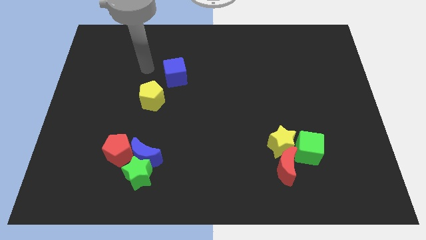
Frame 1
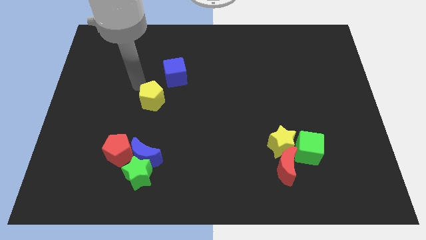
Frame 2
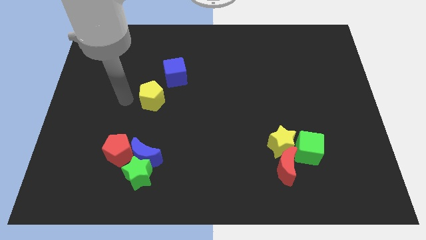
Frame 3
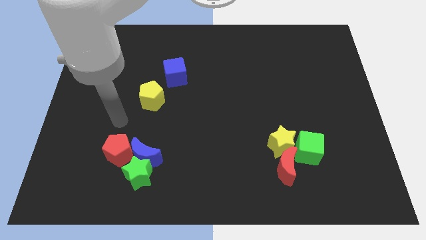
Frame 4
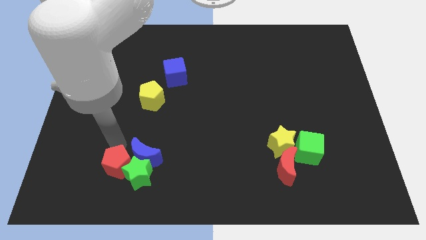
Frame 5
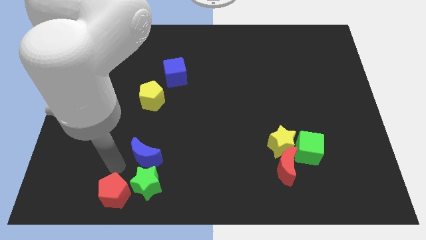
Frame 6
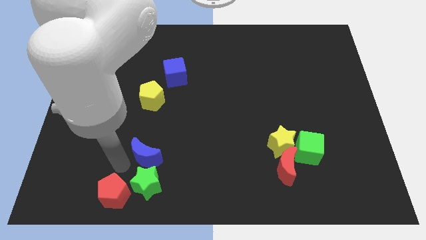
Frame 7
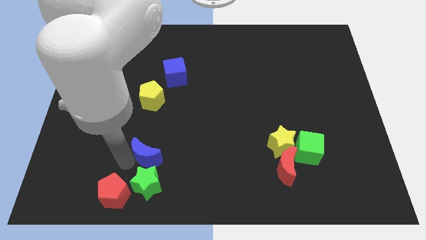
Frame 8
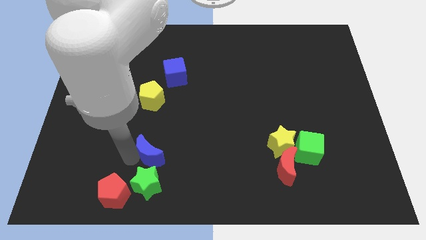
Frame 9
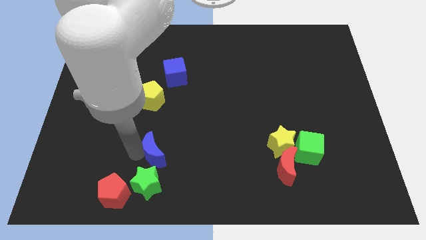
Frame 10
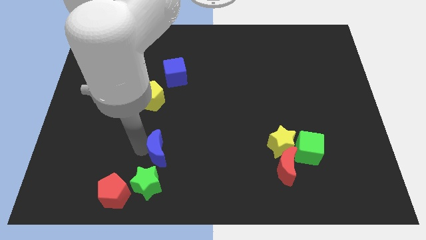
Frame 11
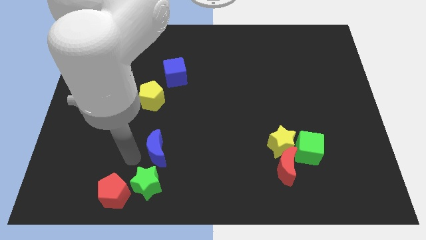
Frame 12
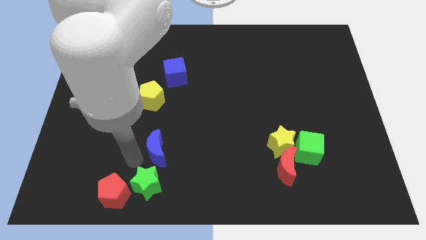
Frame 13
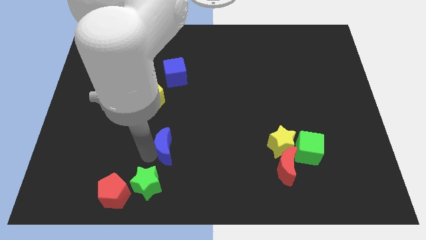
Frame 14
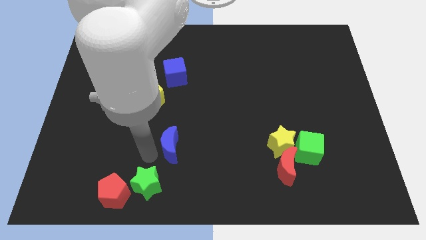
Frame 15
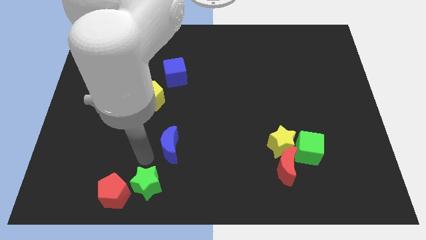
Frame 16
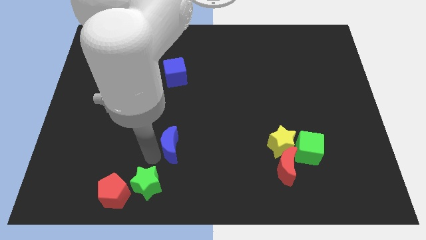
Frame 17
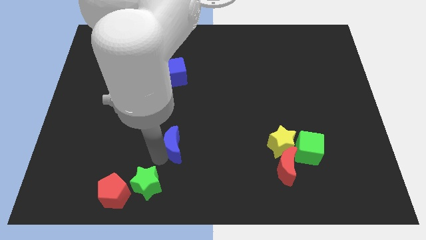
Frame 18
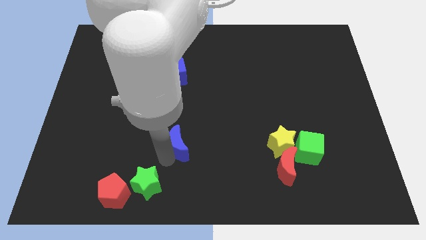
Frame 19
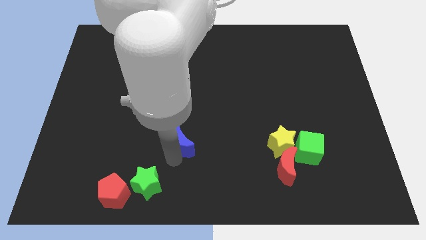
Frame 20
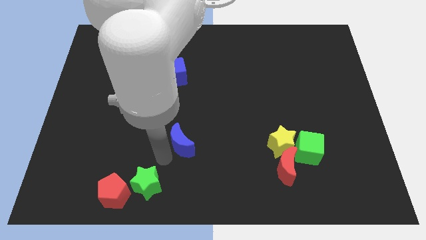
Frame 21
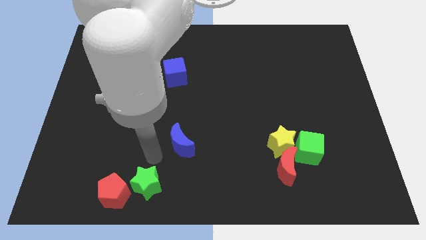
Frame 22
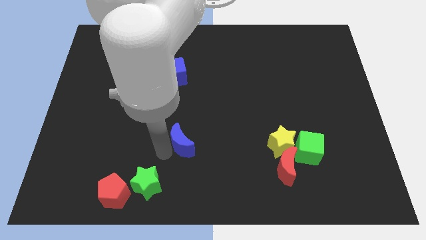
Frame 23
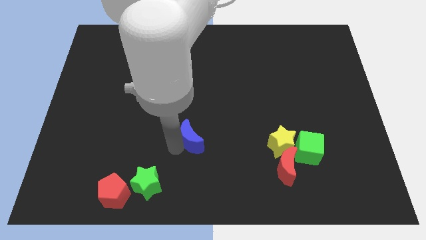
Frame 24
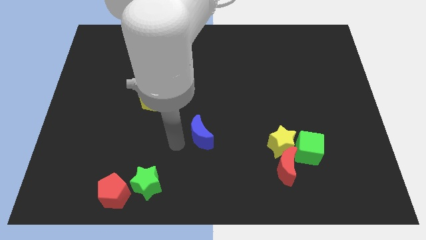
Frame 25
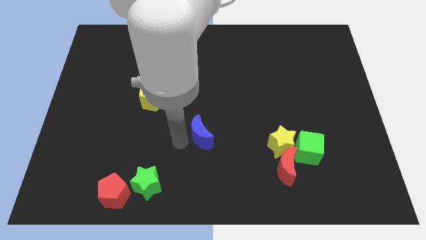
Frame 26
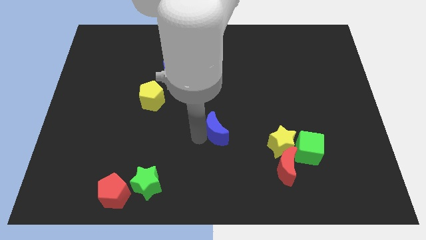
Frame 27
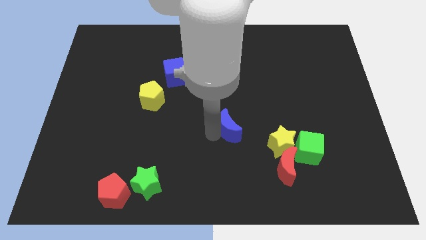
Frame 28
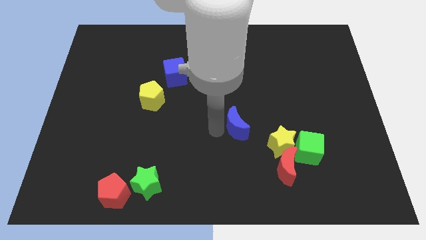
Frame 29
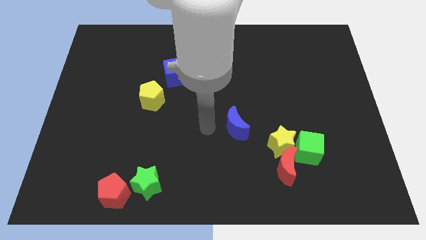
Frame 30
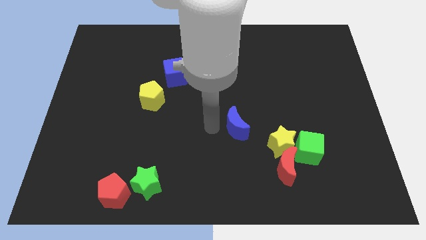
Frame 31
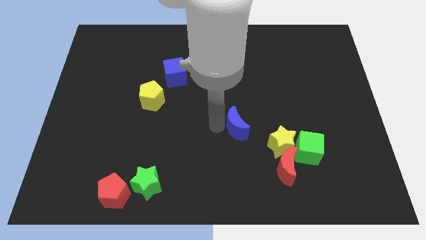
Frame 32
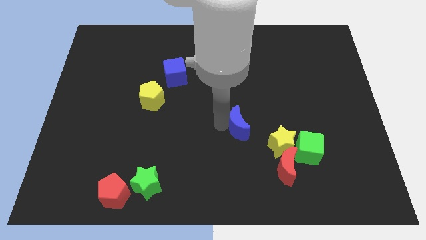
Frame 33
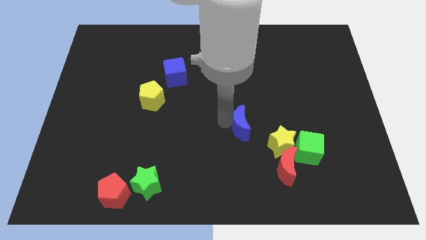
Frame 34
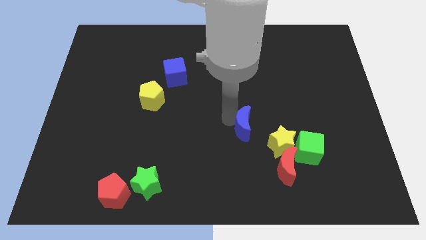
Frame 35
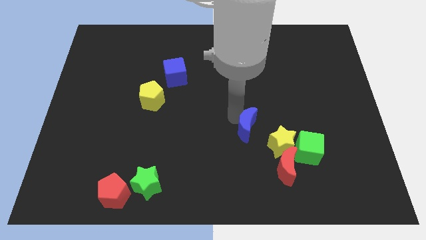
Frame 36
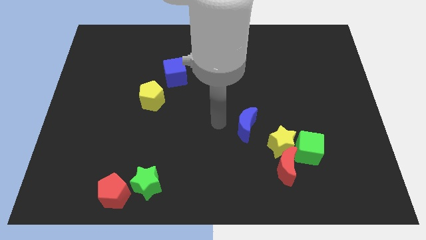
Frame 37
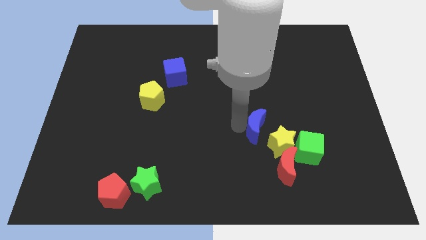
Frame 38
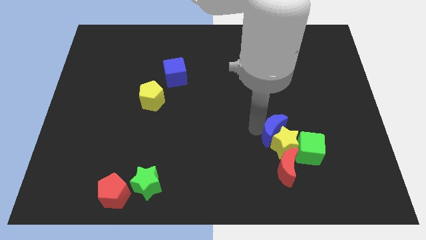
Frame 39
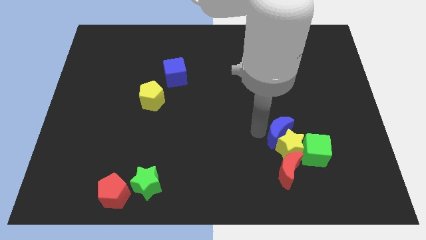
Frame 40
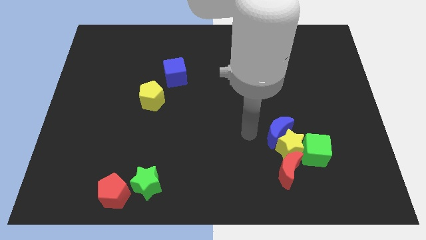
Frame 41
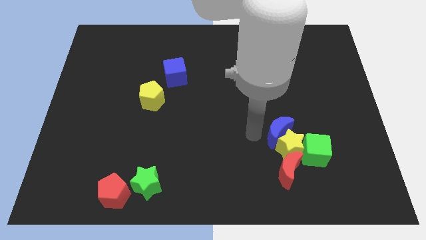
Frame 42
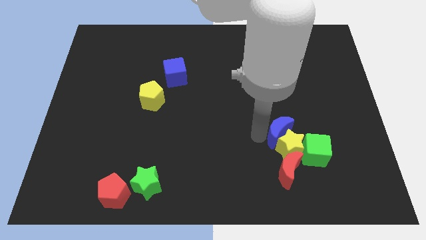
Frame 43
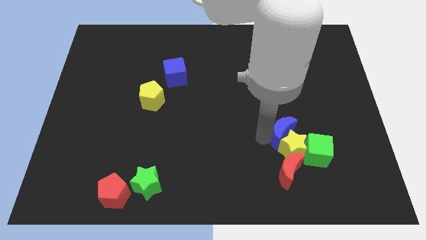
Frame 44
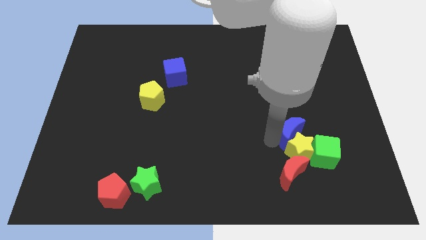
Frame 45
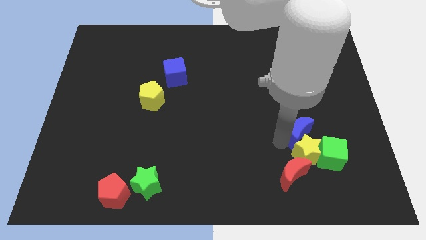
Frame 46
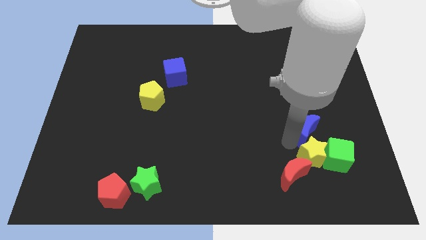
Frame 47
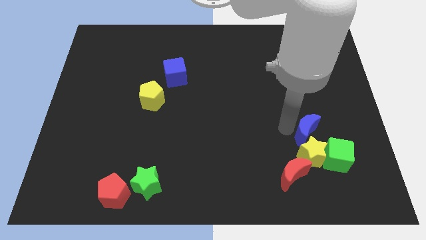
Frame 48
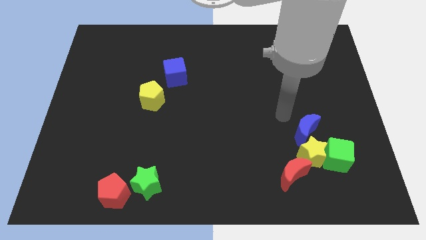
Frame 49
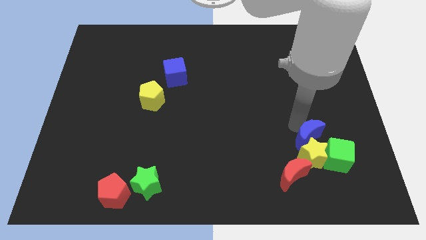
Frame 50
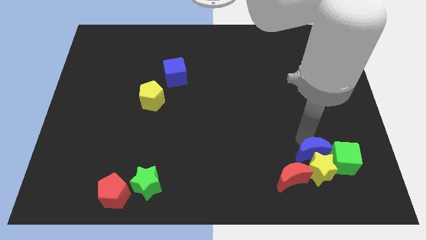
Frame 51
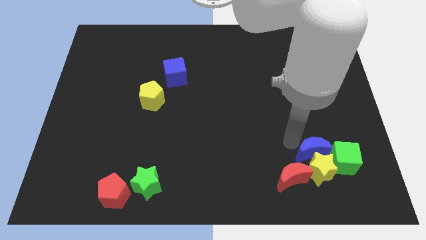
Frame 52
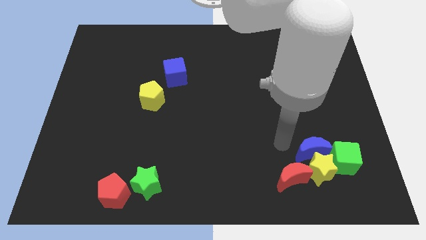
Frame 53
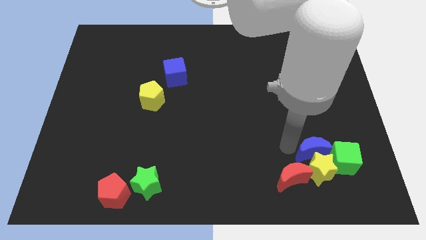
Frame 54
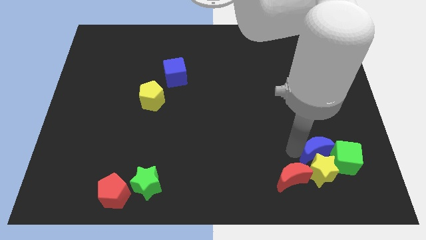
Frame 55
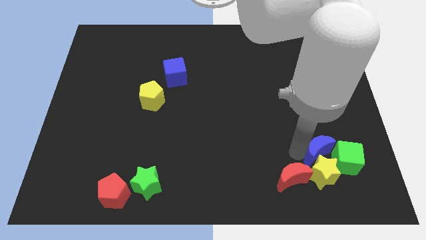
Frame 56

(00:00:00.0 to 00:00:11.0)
move the blue moon to the green cube

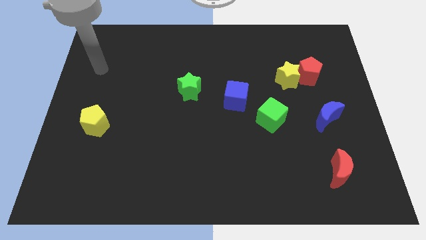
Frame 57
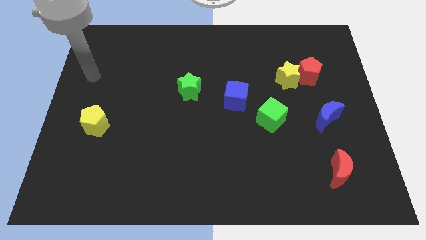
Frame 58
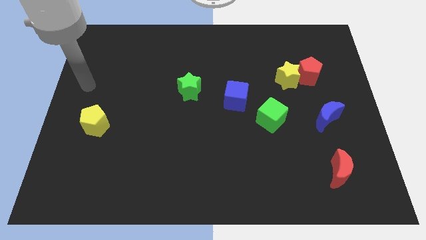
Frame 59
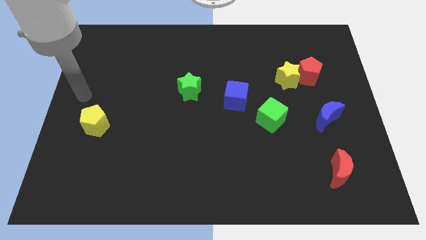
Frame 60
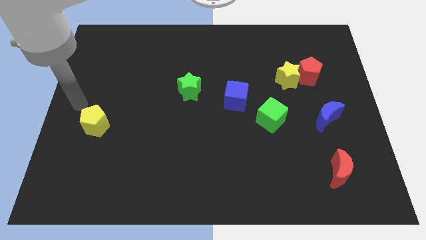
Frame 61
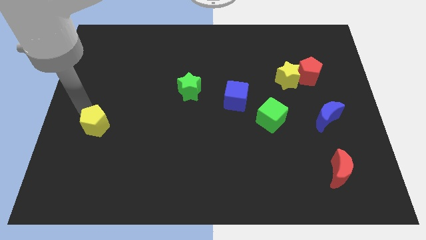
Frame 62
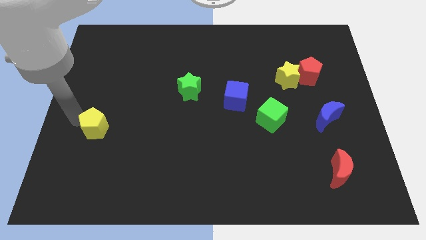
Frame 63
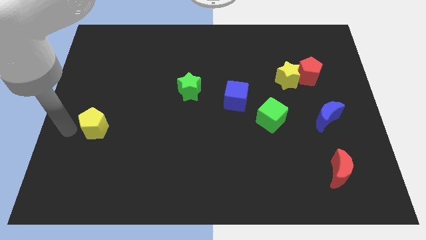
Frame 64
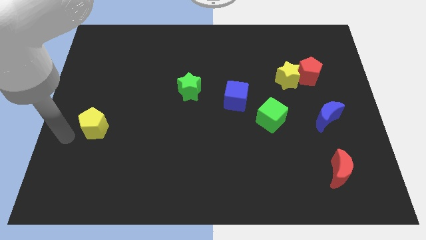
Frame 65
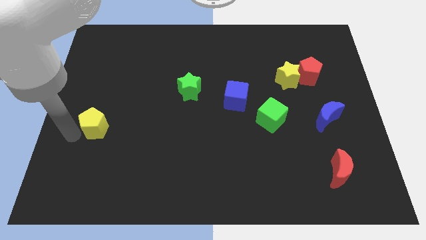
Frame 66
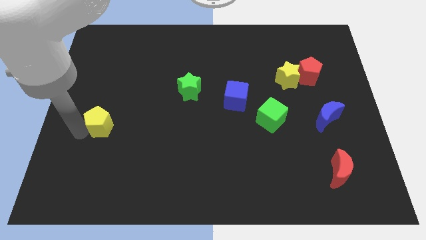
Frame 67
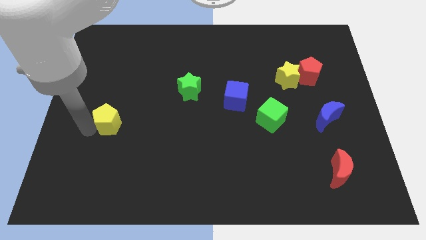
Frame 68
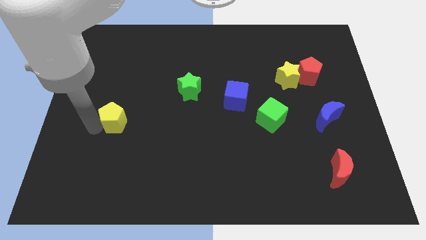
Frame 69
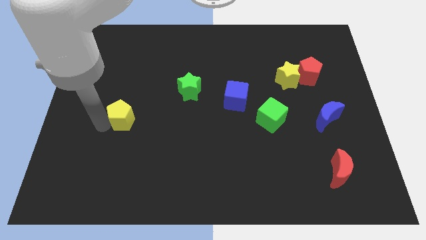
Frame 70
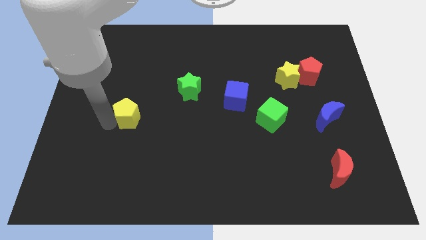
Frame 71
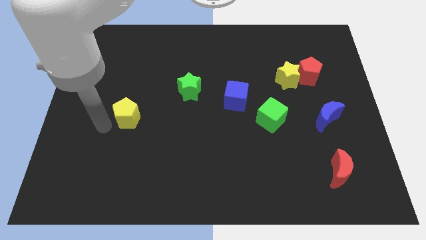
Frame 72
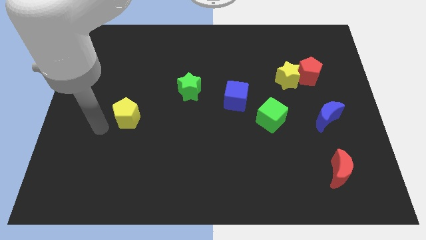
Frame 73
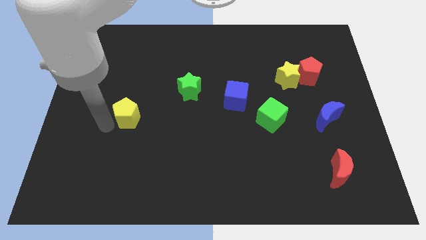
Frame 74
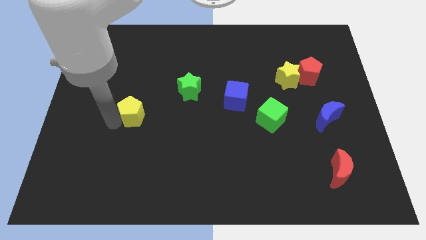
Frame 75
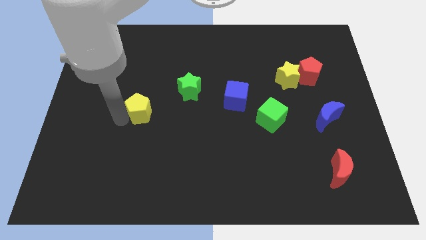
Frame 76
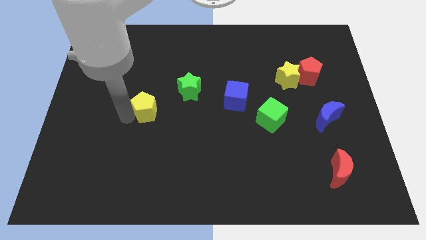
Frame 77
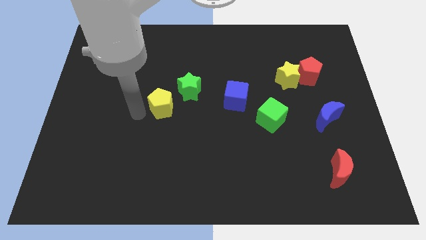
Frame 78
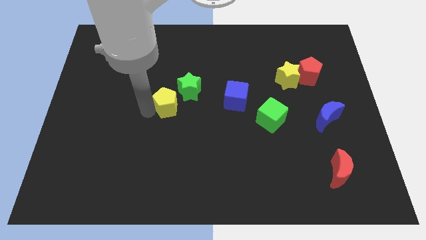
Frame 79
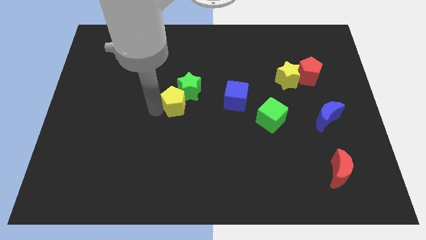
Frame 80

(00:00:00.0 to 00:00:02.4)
push the yellow pentagon towards the green star
